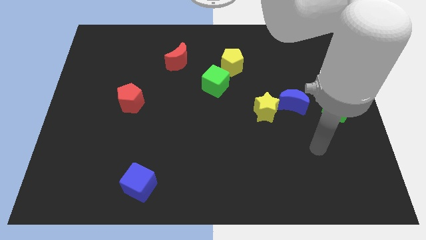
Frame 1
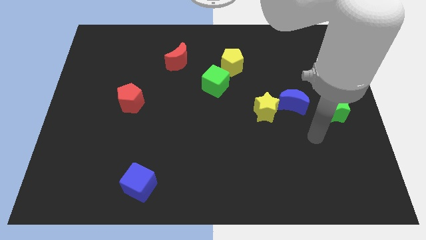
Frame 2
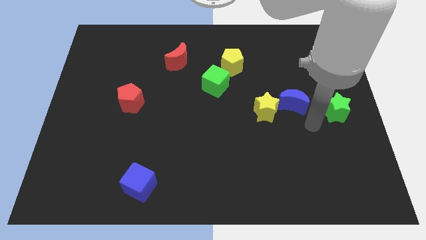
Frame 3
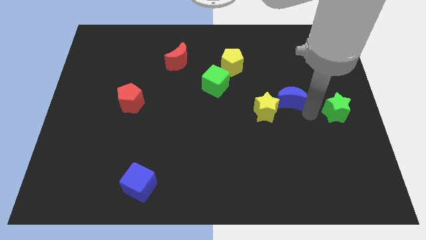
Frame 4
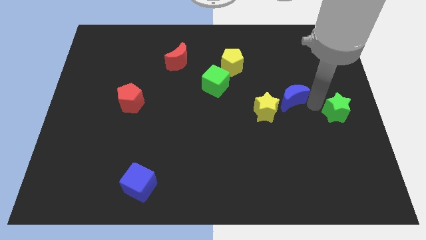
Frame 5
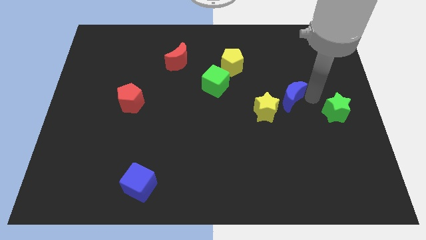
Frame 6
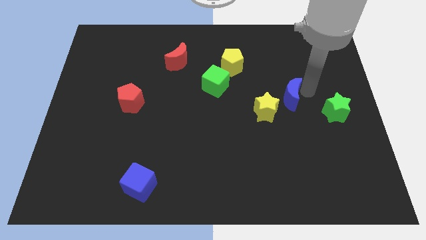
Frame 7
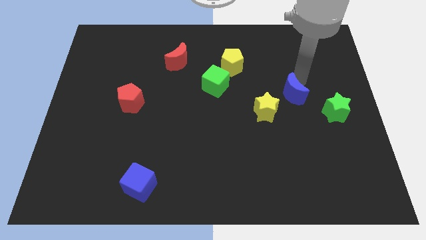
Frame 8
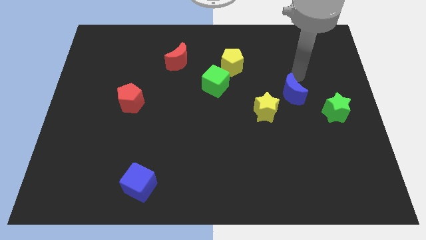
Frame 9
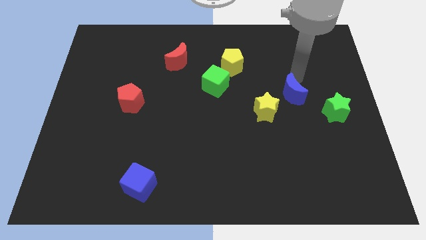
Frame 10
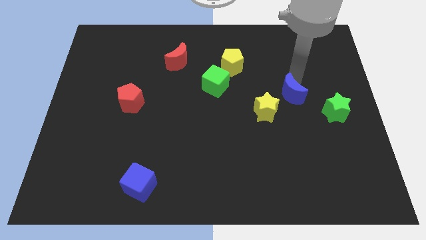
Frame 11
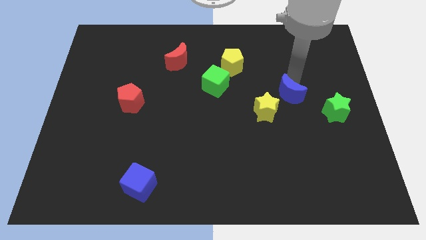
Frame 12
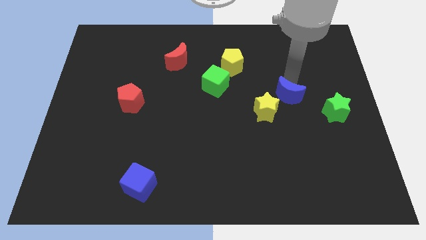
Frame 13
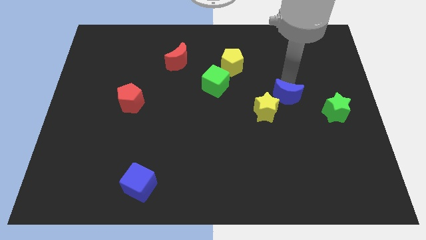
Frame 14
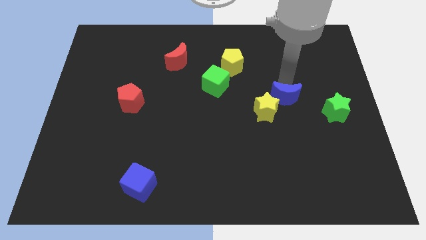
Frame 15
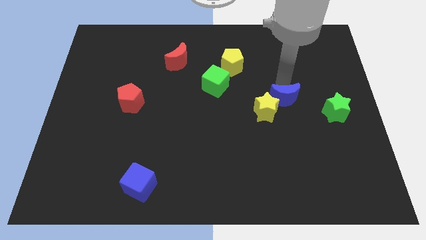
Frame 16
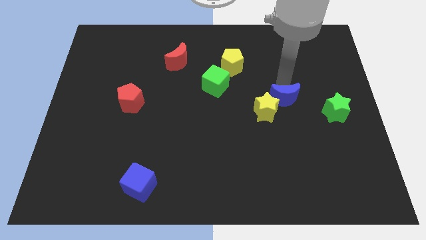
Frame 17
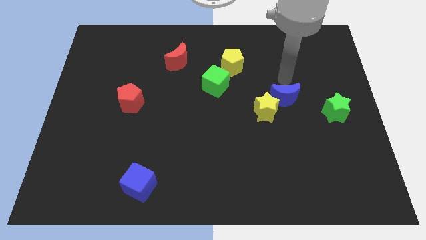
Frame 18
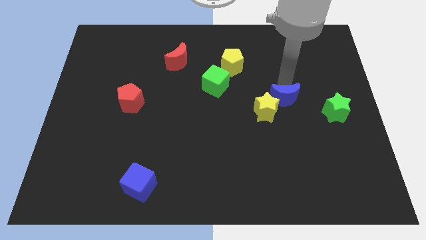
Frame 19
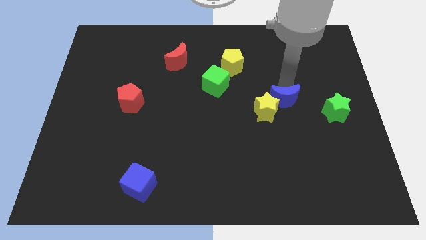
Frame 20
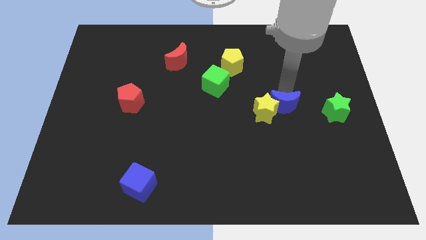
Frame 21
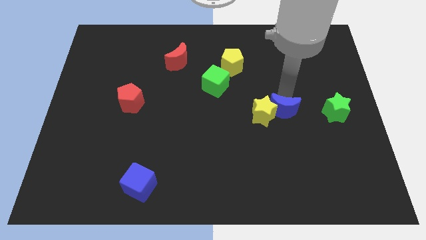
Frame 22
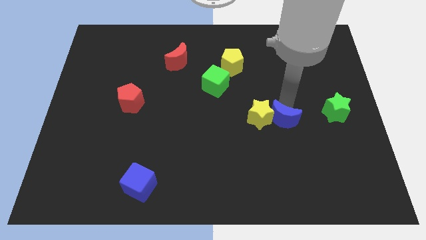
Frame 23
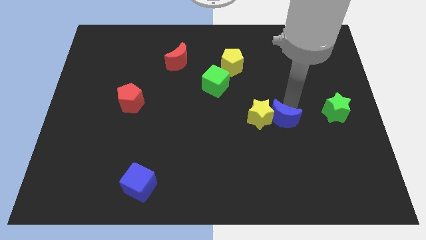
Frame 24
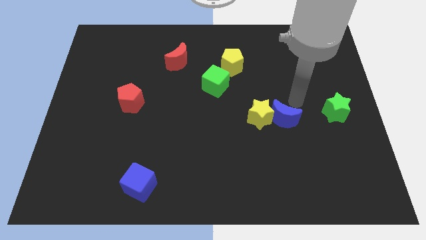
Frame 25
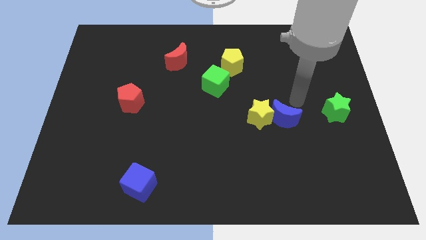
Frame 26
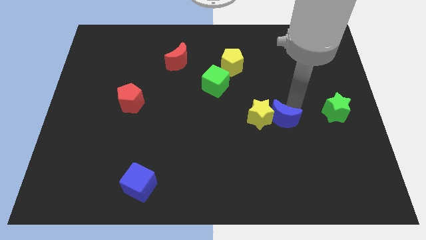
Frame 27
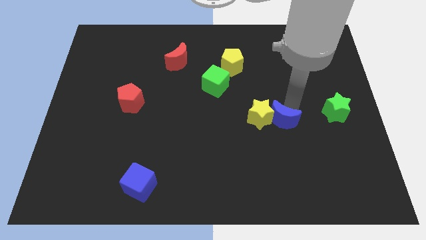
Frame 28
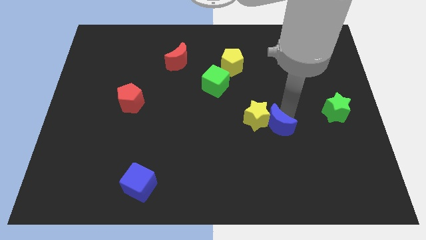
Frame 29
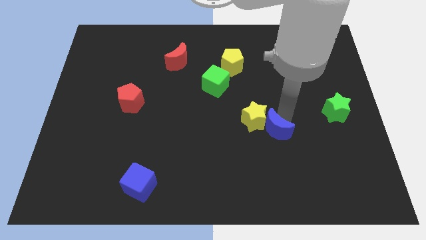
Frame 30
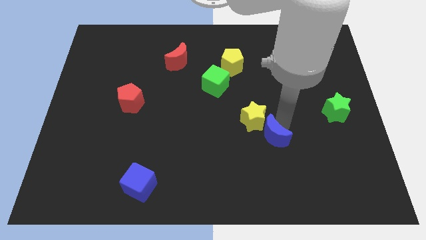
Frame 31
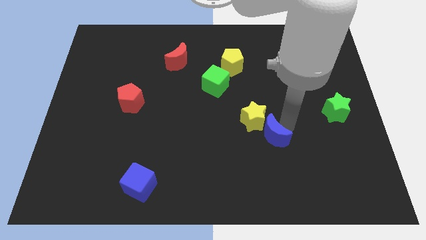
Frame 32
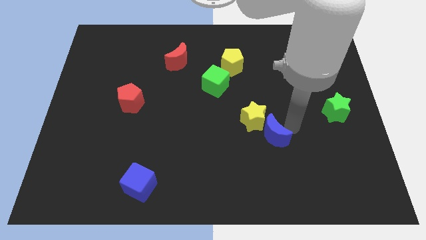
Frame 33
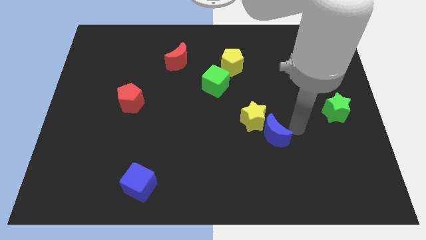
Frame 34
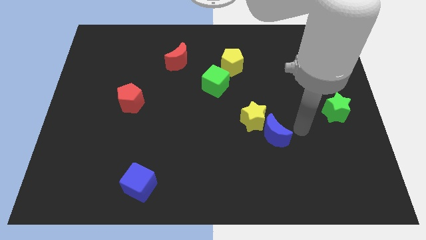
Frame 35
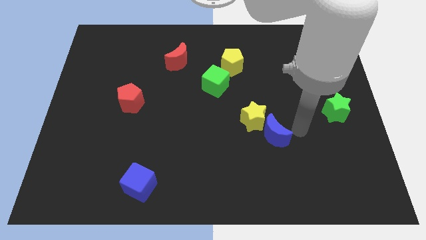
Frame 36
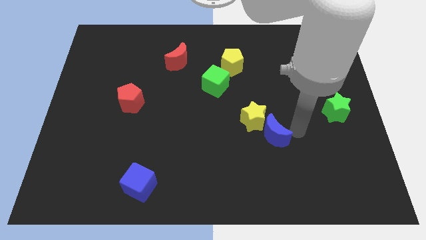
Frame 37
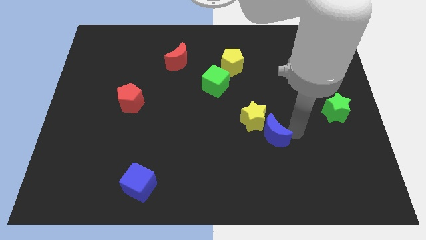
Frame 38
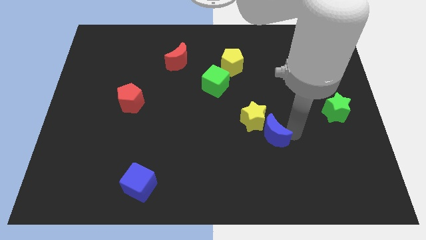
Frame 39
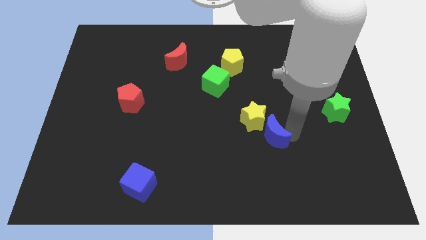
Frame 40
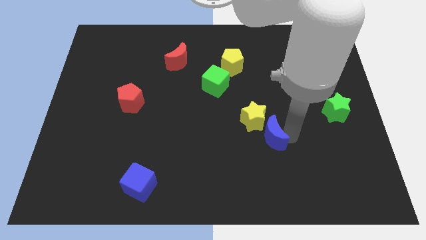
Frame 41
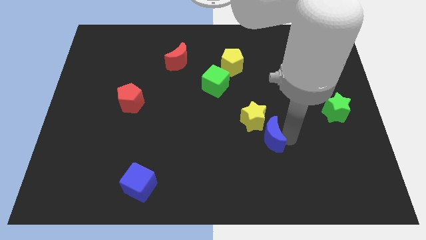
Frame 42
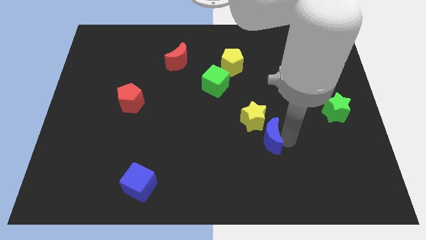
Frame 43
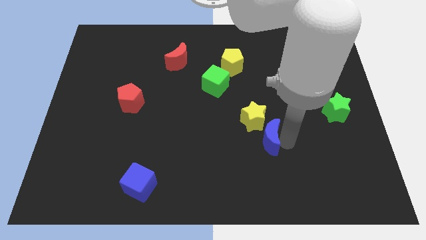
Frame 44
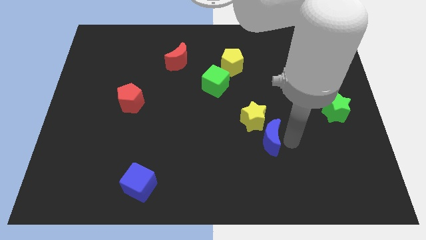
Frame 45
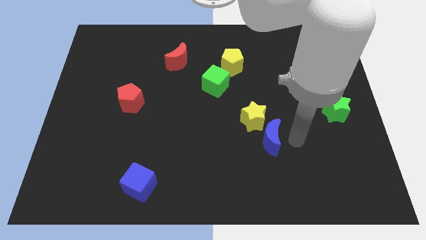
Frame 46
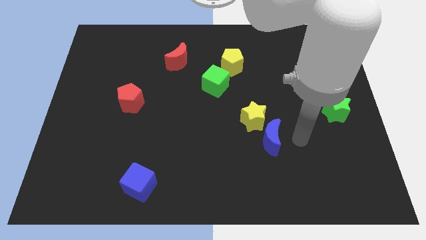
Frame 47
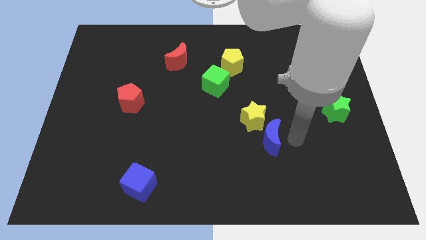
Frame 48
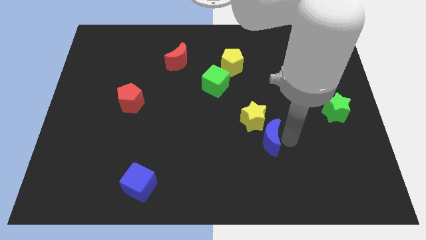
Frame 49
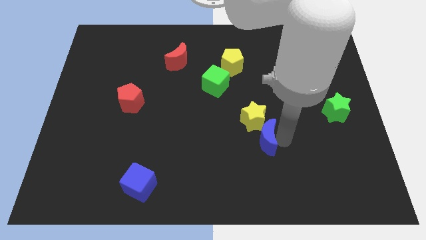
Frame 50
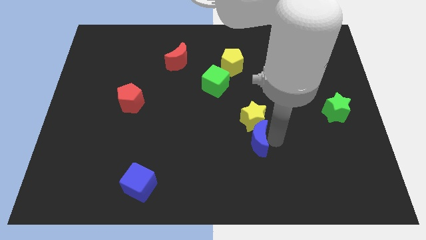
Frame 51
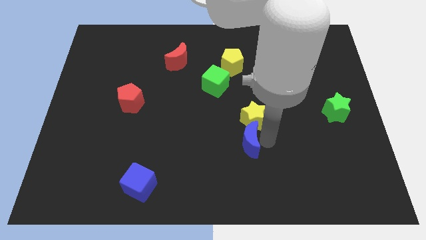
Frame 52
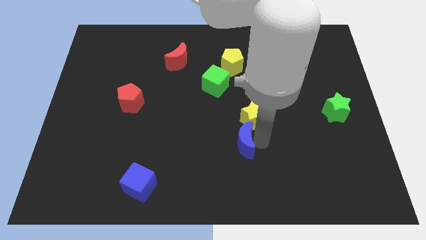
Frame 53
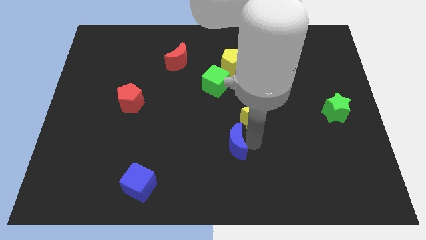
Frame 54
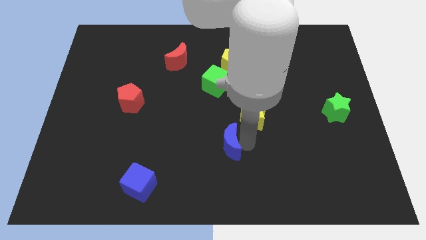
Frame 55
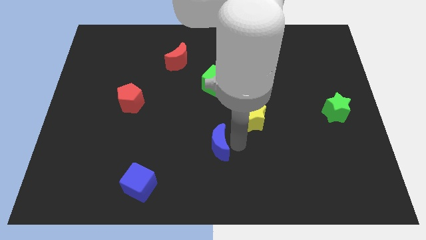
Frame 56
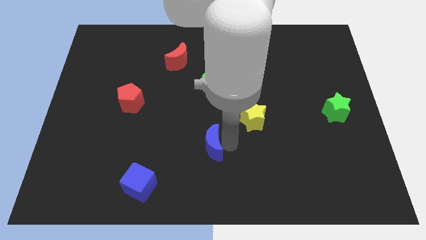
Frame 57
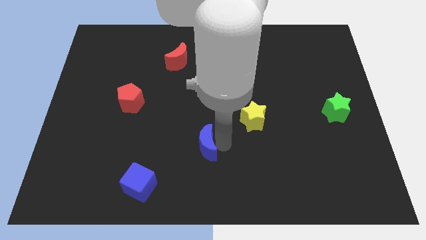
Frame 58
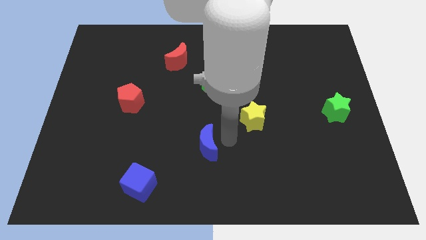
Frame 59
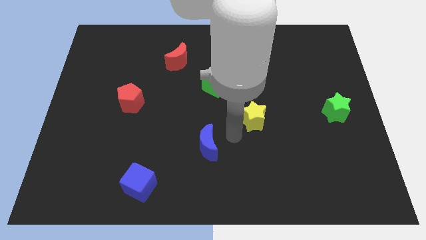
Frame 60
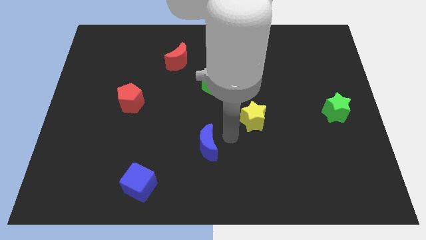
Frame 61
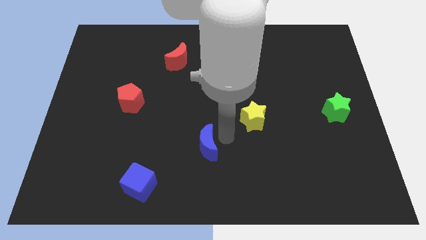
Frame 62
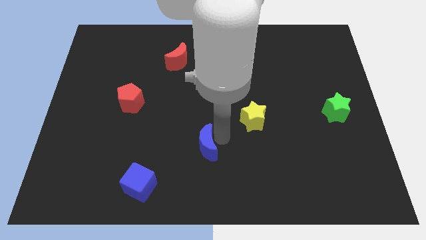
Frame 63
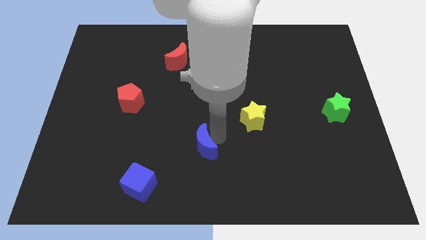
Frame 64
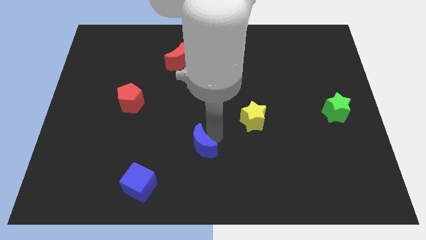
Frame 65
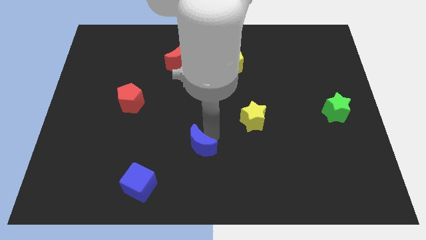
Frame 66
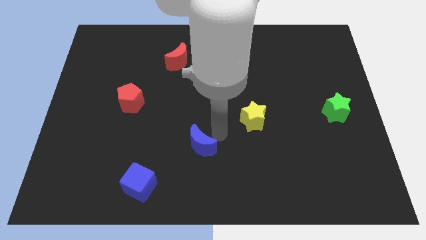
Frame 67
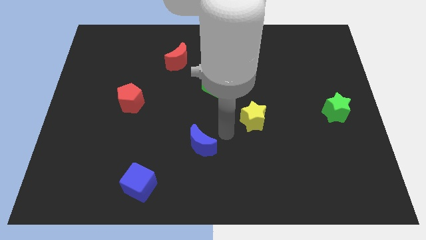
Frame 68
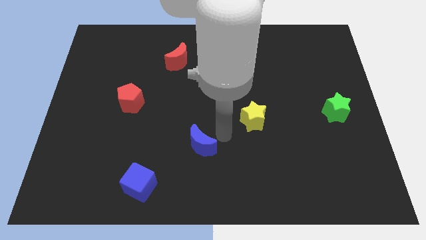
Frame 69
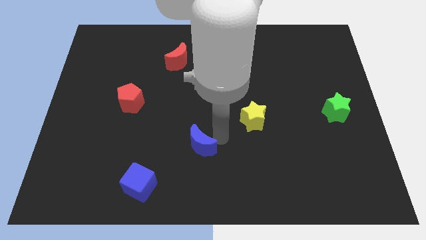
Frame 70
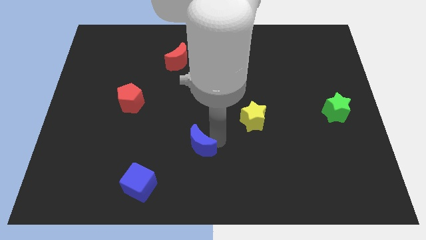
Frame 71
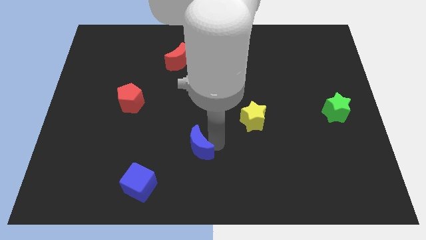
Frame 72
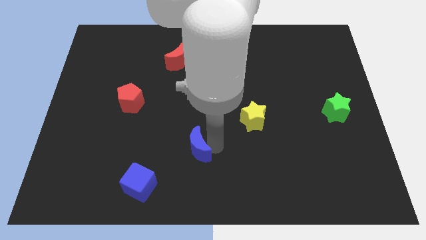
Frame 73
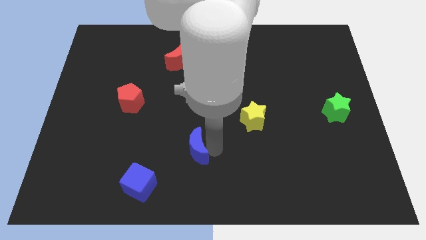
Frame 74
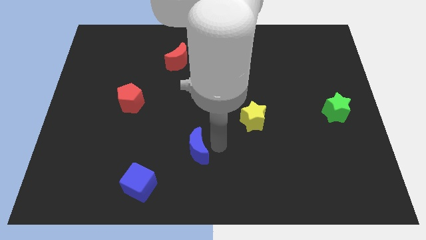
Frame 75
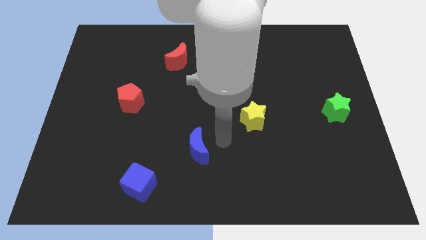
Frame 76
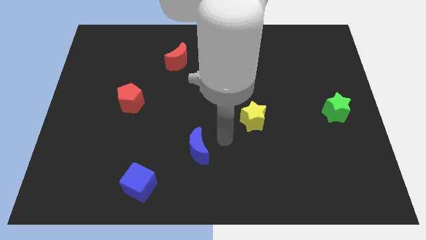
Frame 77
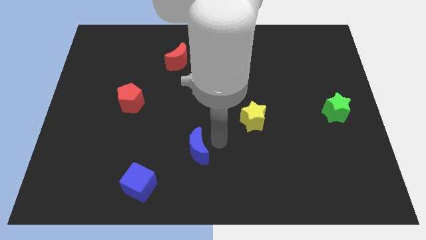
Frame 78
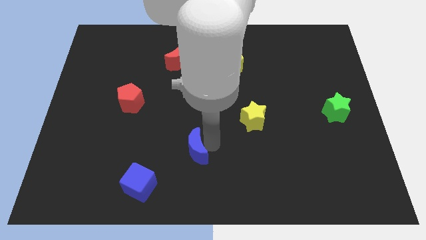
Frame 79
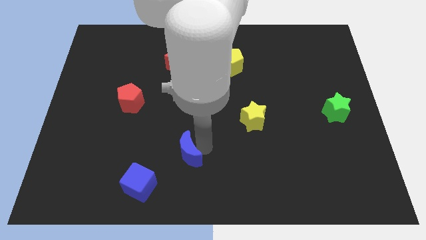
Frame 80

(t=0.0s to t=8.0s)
slide the blue moon diagonally up and to the right of the blue cube
